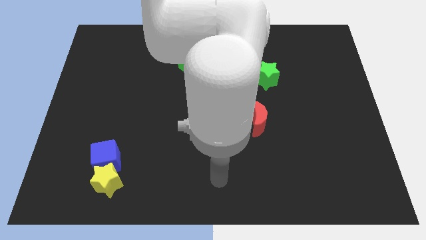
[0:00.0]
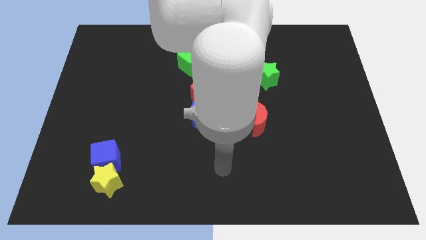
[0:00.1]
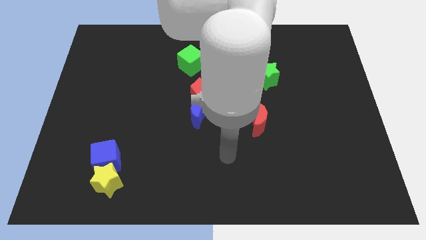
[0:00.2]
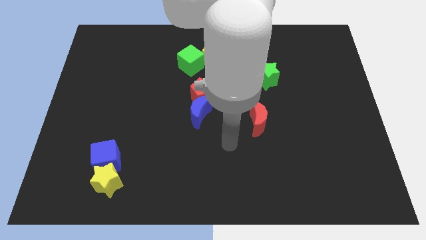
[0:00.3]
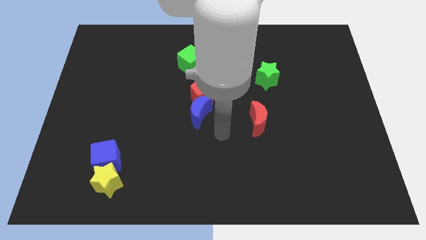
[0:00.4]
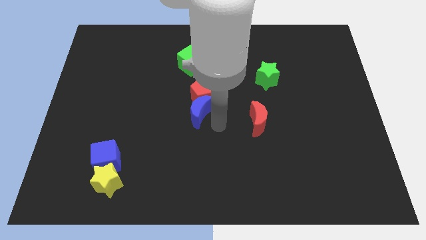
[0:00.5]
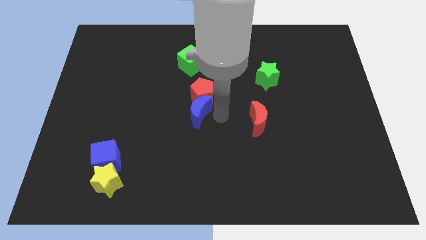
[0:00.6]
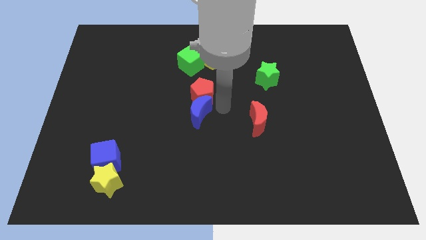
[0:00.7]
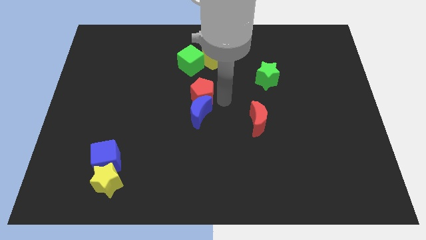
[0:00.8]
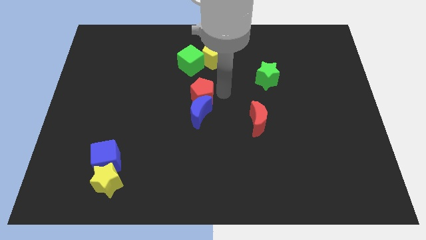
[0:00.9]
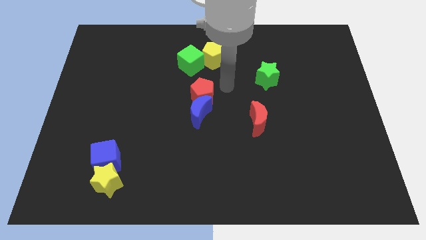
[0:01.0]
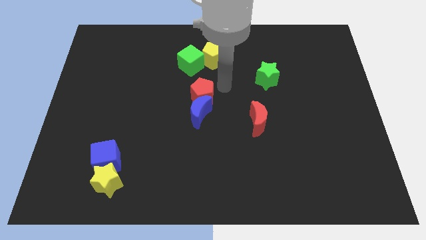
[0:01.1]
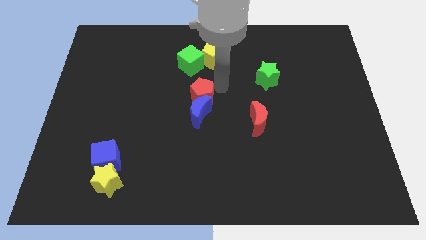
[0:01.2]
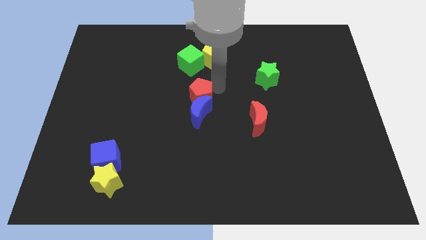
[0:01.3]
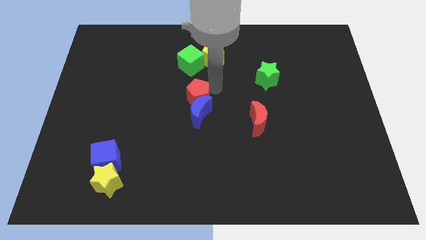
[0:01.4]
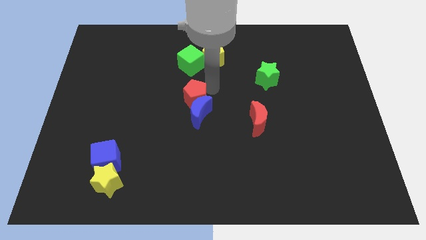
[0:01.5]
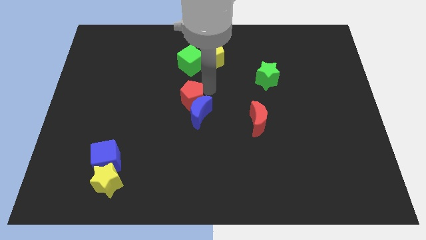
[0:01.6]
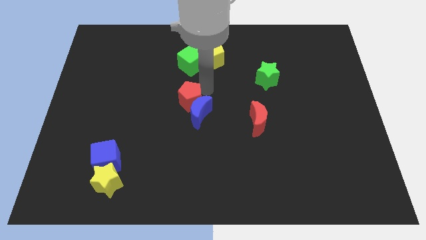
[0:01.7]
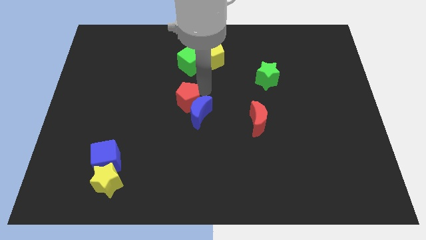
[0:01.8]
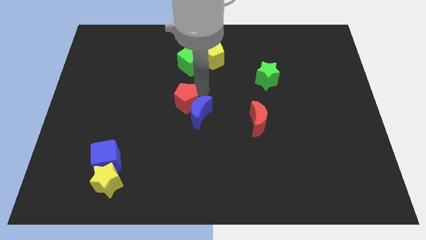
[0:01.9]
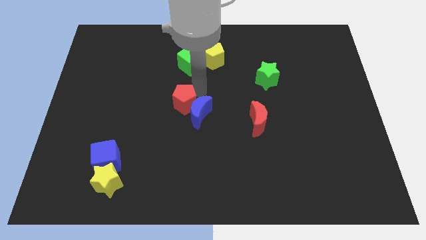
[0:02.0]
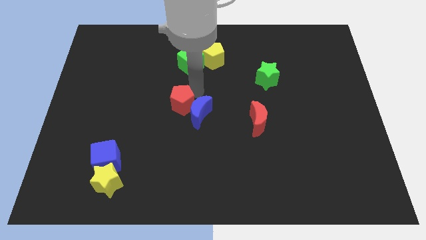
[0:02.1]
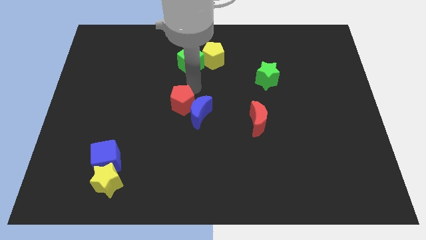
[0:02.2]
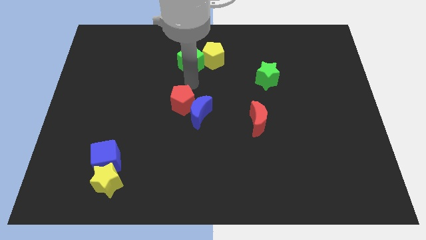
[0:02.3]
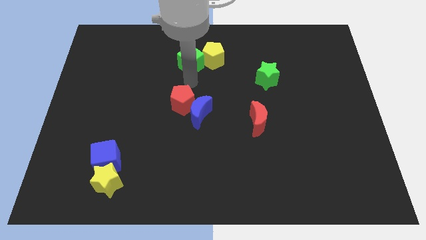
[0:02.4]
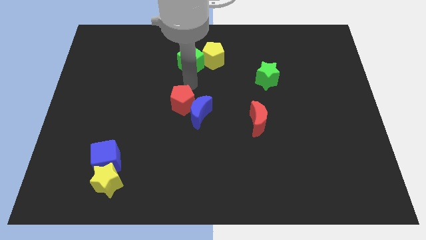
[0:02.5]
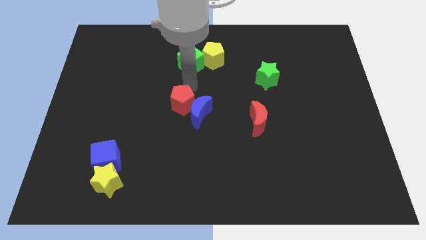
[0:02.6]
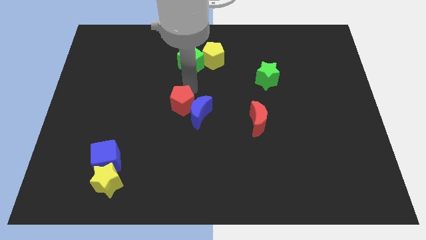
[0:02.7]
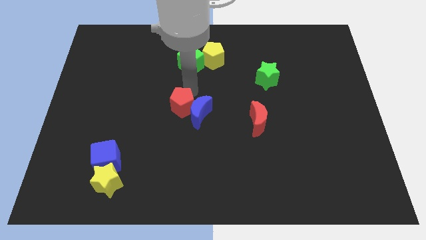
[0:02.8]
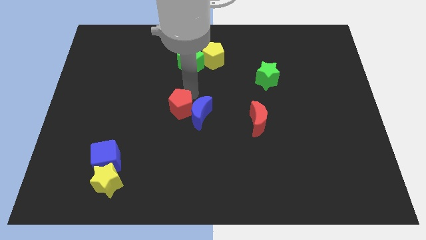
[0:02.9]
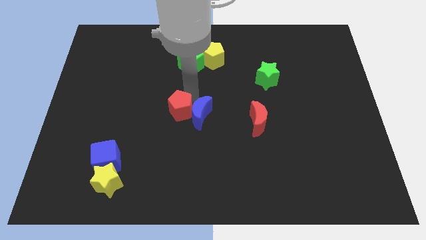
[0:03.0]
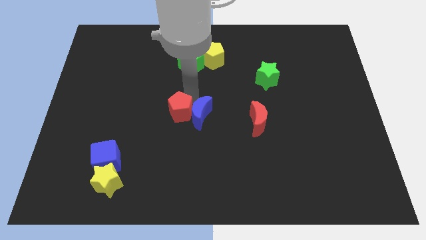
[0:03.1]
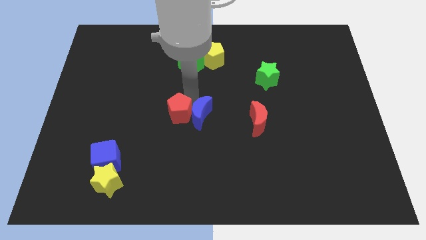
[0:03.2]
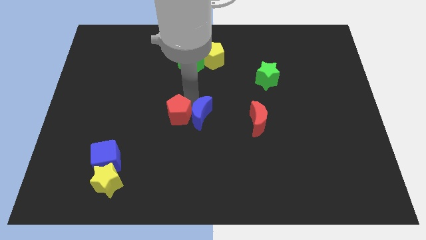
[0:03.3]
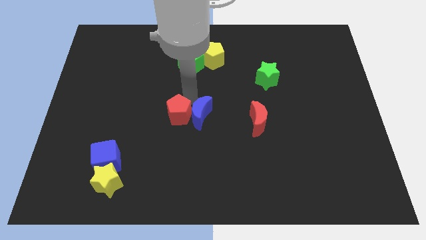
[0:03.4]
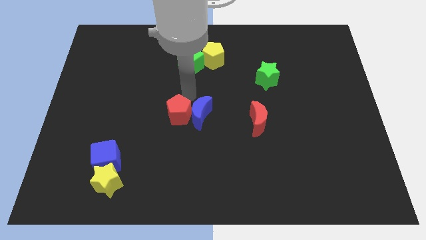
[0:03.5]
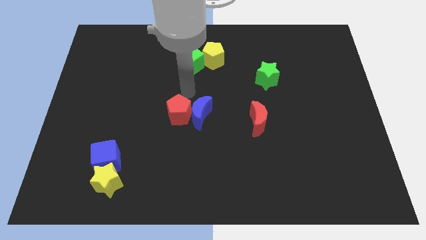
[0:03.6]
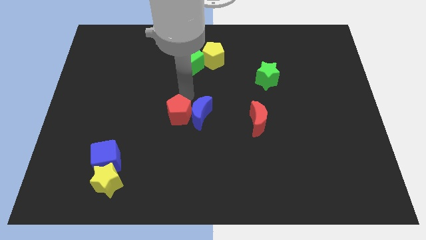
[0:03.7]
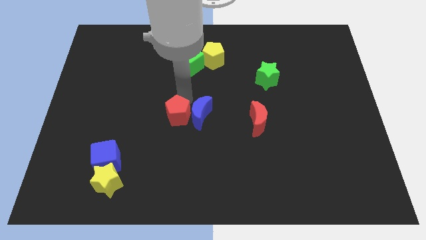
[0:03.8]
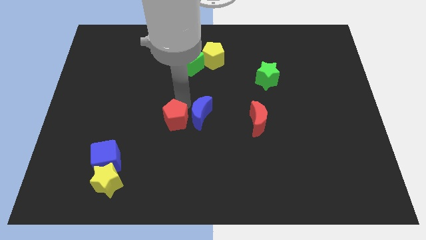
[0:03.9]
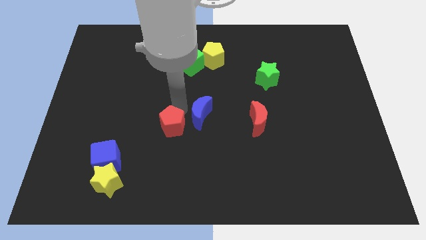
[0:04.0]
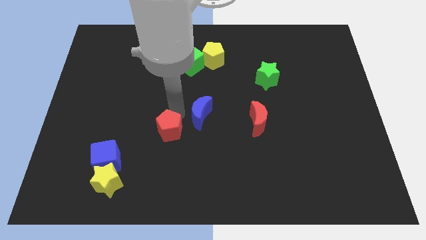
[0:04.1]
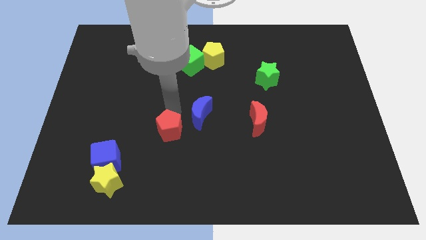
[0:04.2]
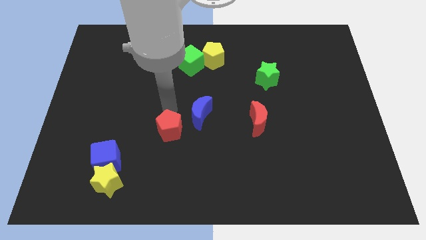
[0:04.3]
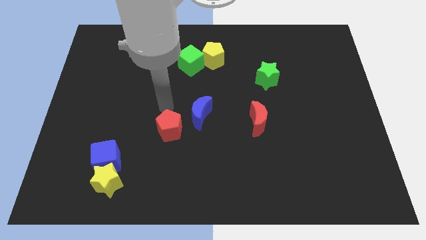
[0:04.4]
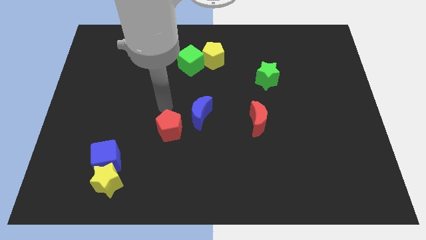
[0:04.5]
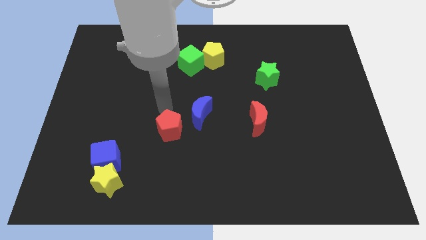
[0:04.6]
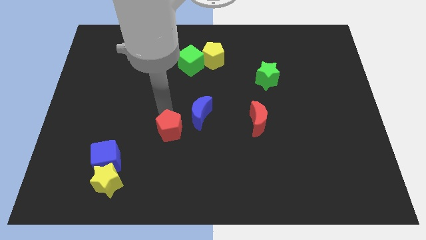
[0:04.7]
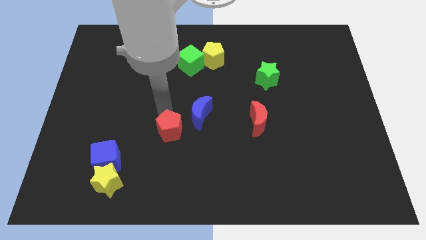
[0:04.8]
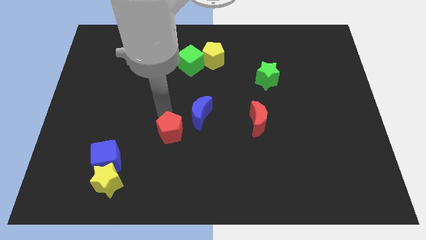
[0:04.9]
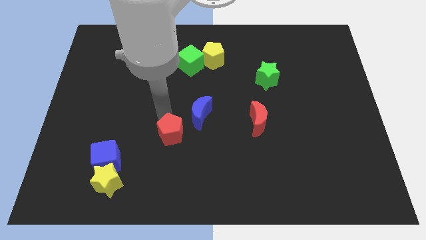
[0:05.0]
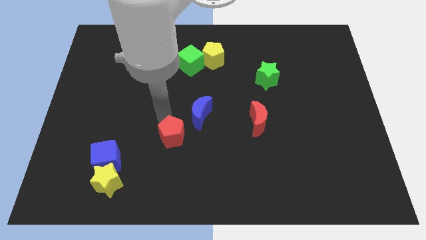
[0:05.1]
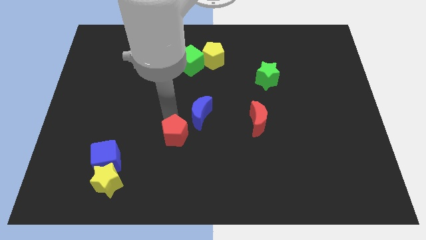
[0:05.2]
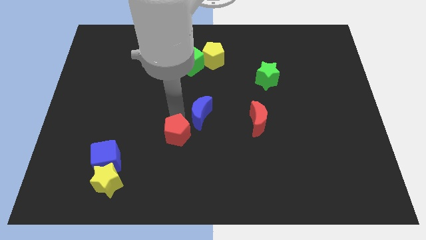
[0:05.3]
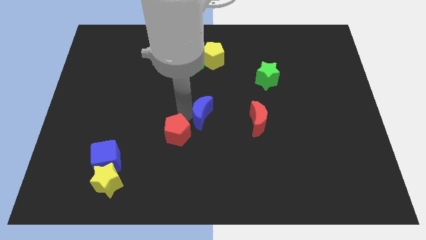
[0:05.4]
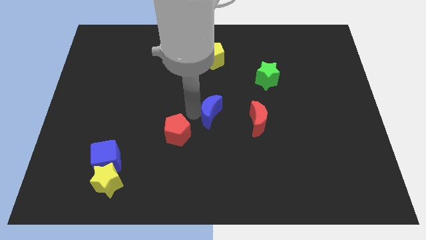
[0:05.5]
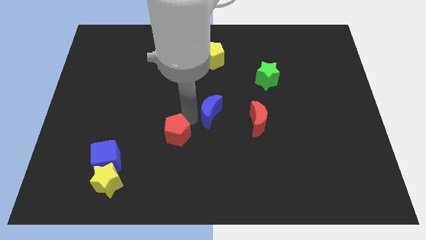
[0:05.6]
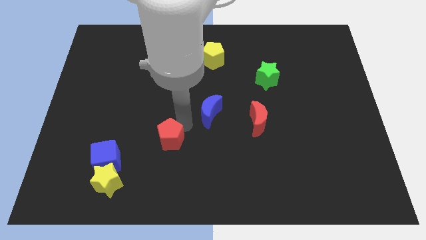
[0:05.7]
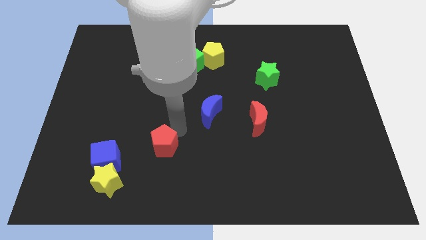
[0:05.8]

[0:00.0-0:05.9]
slide the red pentagon right of the blue cube

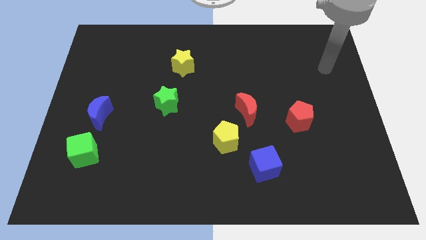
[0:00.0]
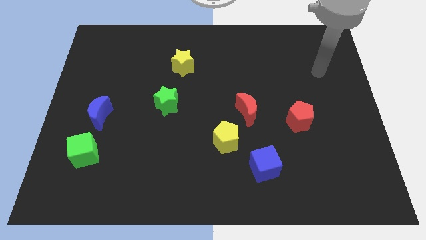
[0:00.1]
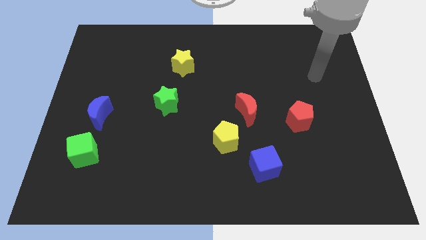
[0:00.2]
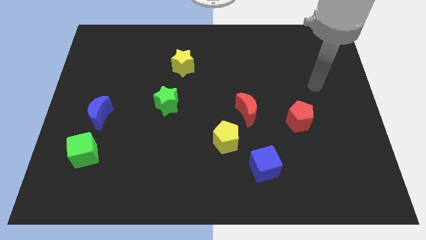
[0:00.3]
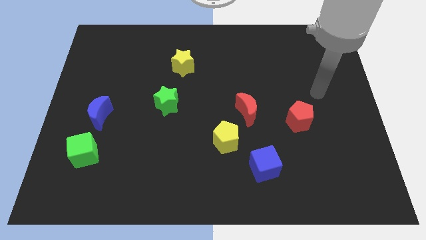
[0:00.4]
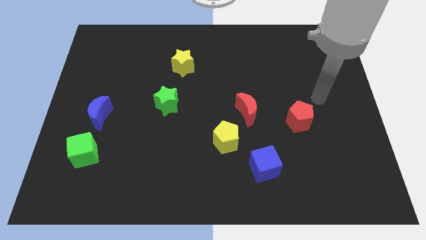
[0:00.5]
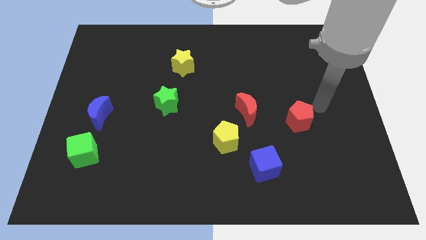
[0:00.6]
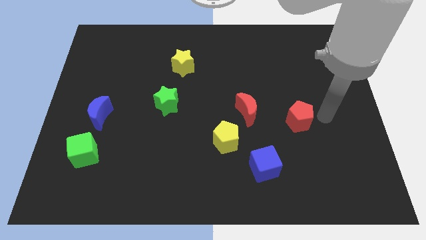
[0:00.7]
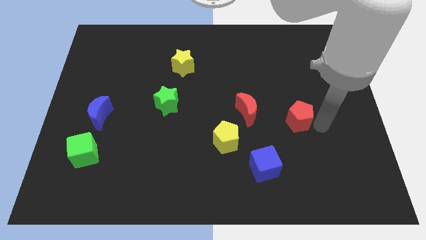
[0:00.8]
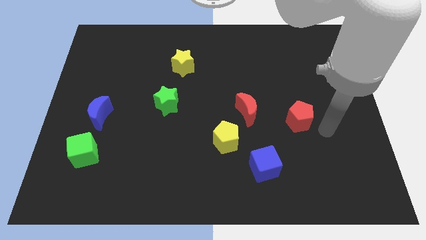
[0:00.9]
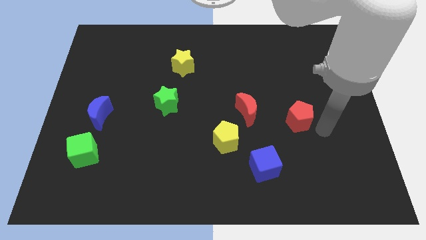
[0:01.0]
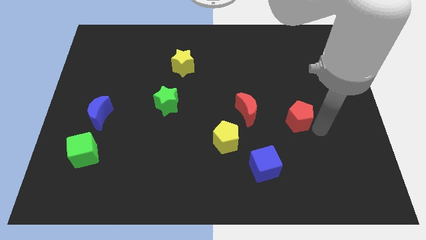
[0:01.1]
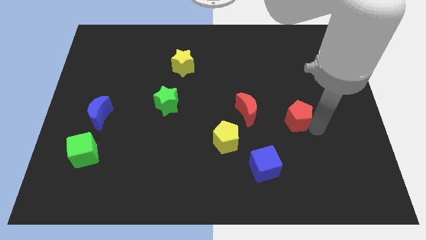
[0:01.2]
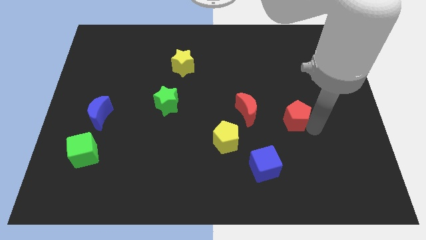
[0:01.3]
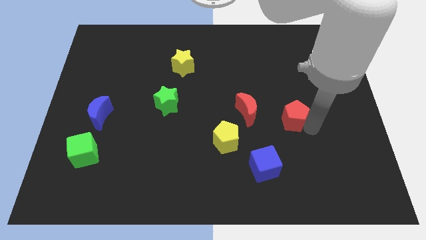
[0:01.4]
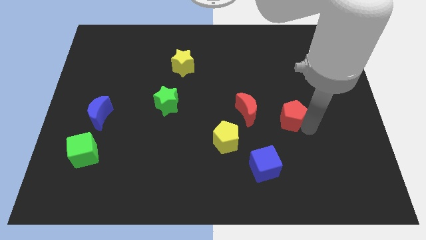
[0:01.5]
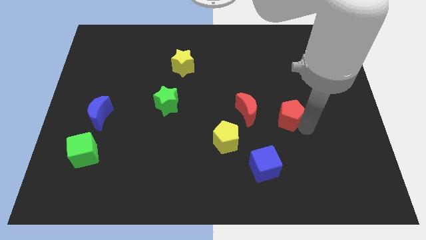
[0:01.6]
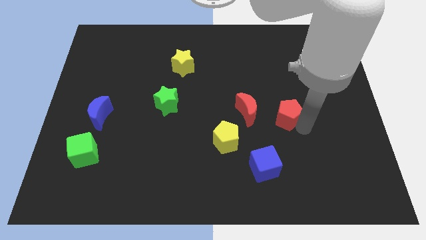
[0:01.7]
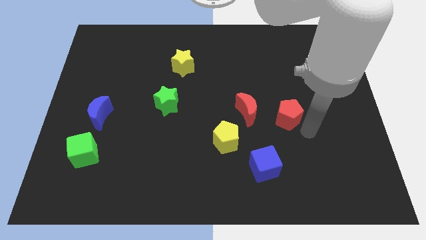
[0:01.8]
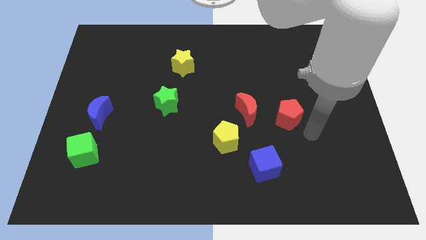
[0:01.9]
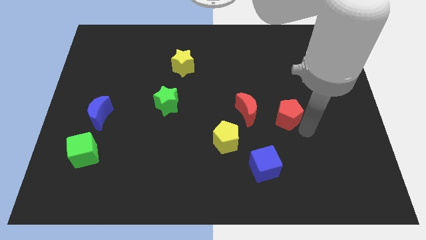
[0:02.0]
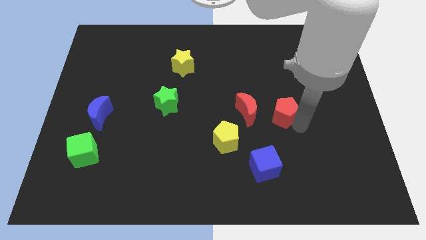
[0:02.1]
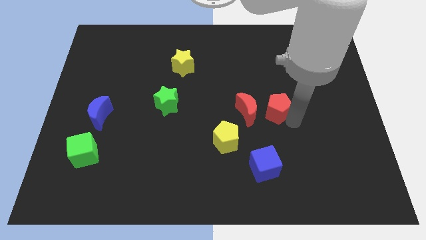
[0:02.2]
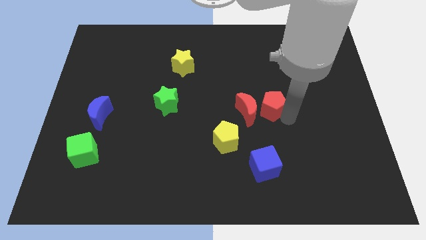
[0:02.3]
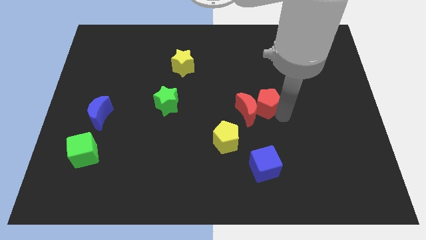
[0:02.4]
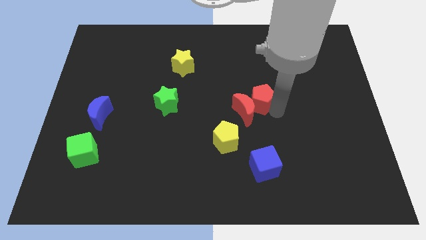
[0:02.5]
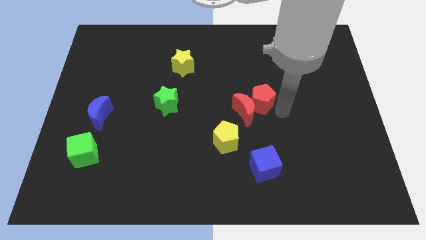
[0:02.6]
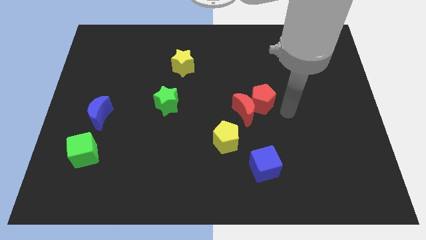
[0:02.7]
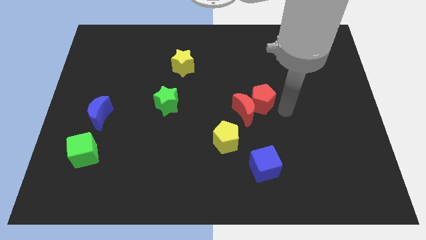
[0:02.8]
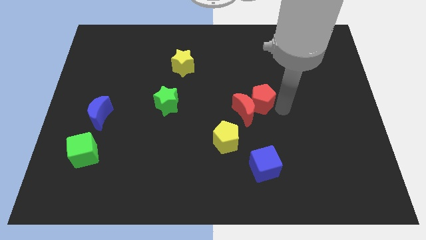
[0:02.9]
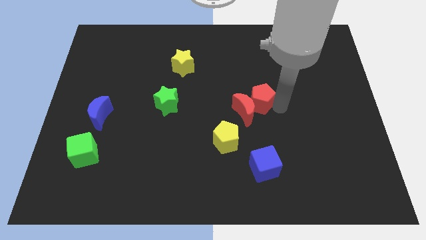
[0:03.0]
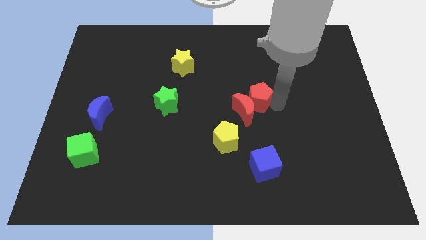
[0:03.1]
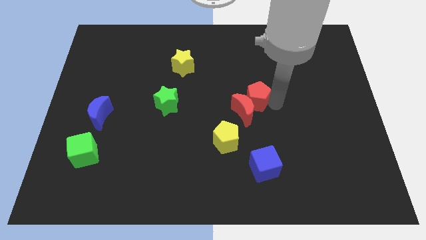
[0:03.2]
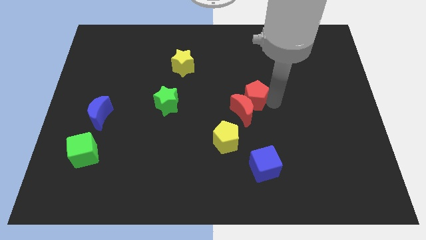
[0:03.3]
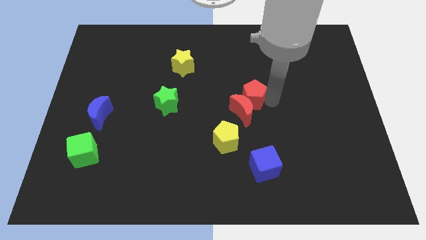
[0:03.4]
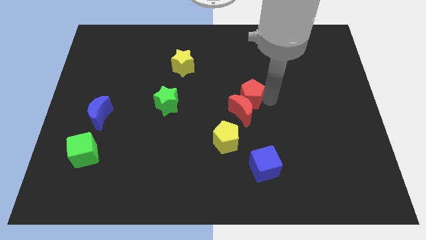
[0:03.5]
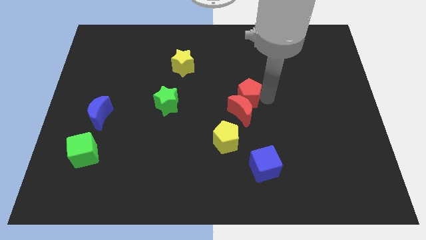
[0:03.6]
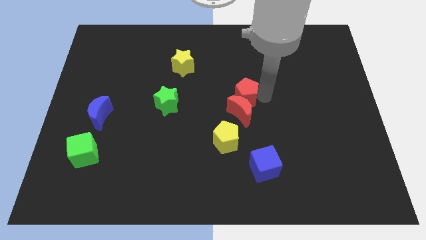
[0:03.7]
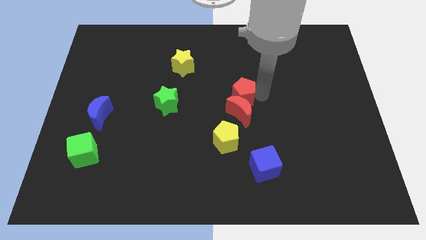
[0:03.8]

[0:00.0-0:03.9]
push the red pentagon to the top of the yellow pentagon
